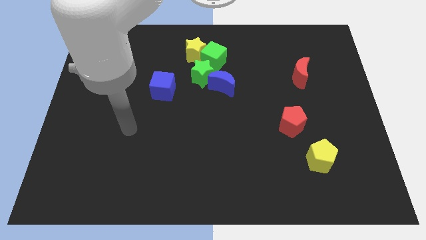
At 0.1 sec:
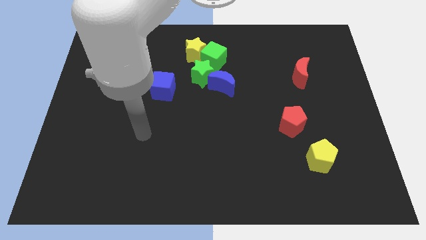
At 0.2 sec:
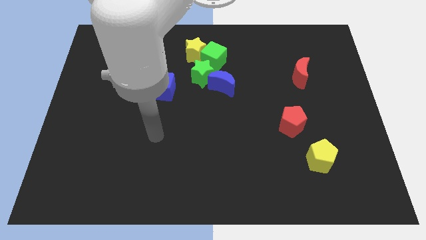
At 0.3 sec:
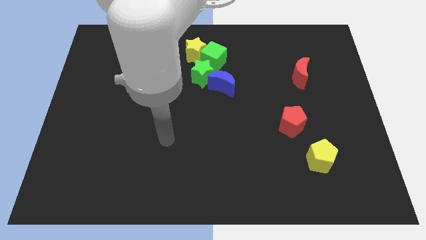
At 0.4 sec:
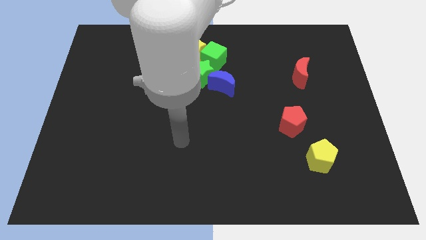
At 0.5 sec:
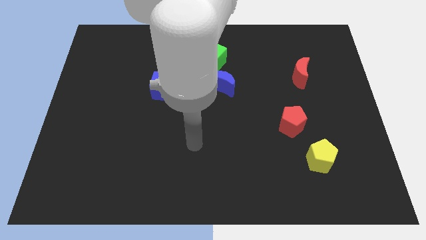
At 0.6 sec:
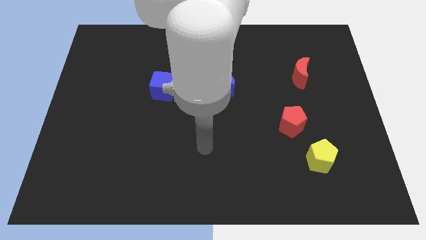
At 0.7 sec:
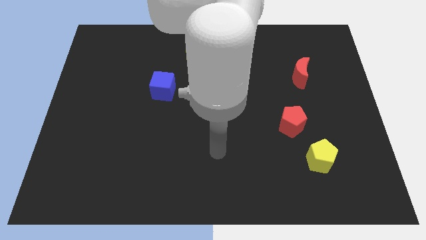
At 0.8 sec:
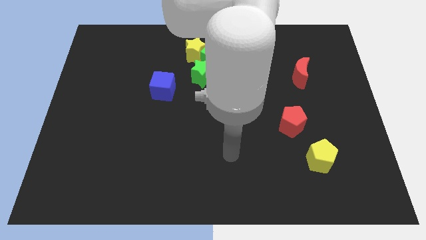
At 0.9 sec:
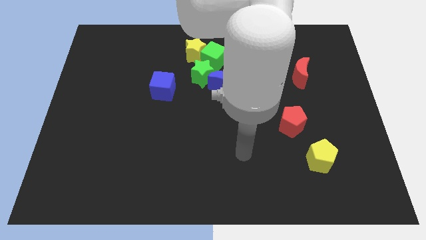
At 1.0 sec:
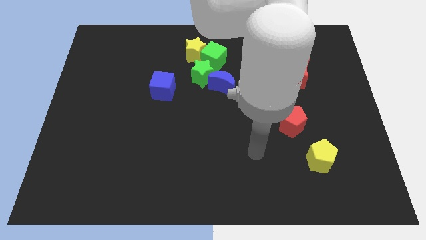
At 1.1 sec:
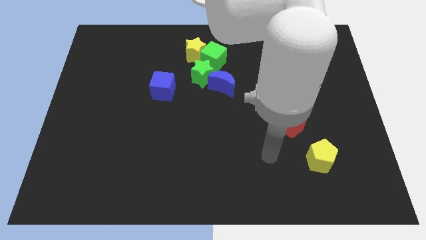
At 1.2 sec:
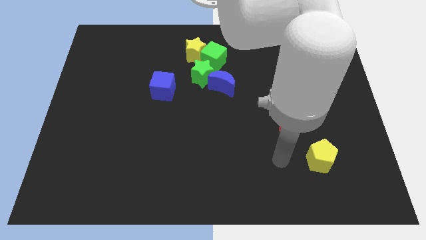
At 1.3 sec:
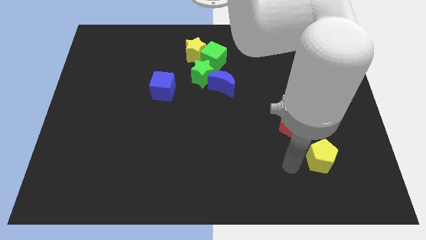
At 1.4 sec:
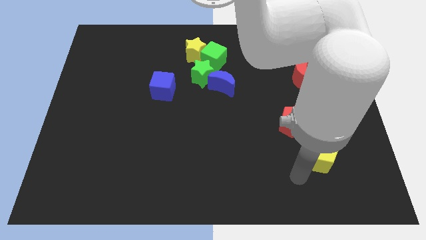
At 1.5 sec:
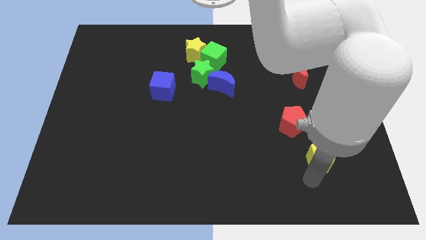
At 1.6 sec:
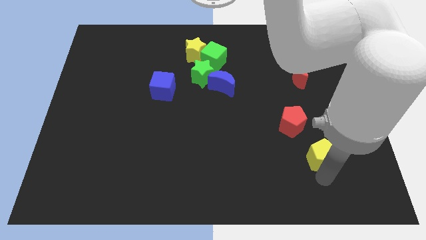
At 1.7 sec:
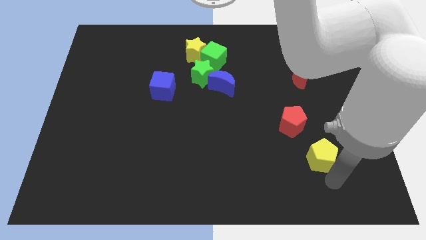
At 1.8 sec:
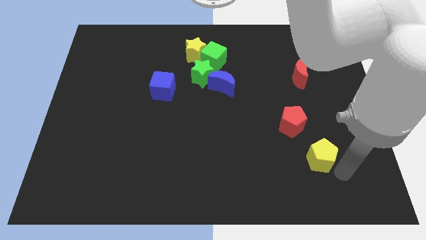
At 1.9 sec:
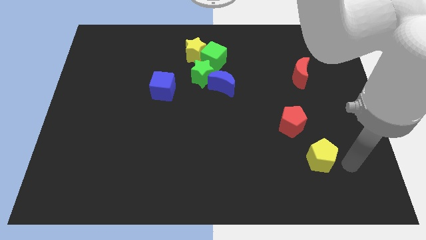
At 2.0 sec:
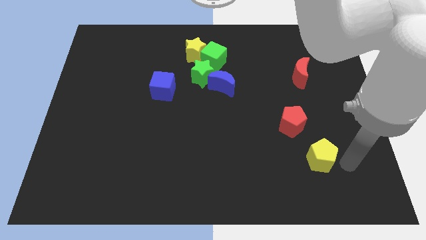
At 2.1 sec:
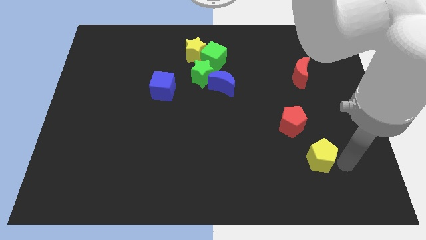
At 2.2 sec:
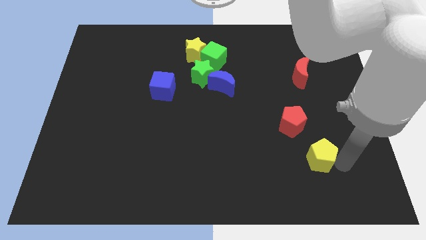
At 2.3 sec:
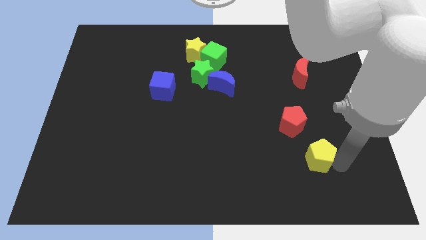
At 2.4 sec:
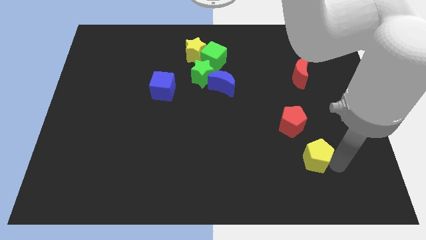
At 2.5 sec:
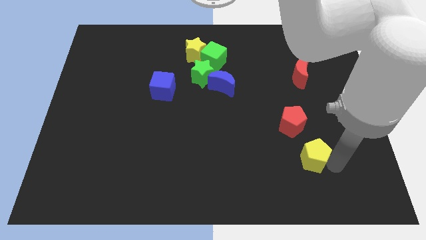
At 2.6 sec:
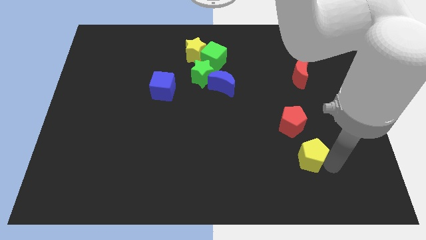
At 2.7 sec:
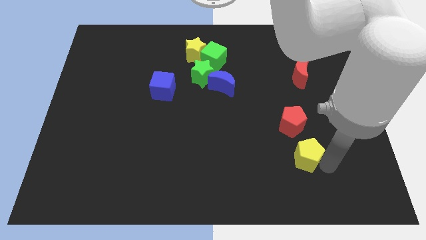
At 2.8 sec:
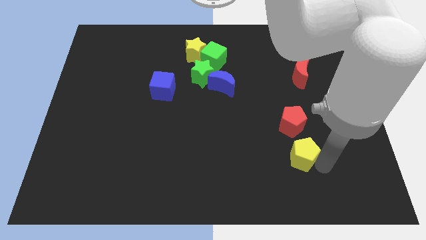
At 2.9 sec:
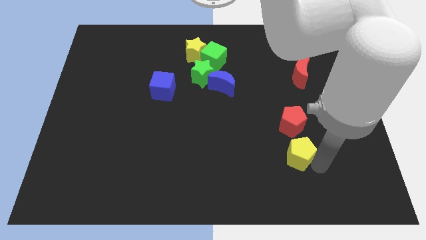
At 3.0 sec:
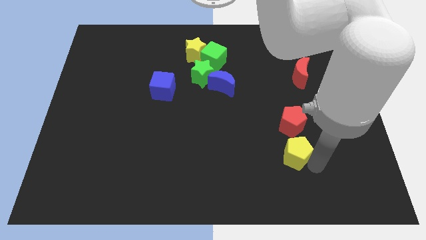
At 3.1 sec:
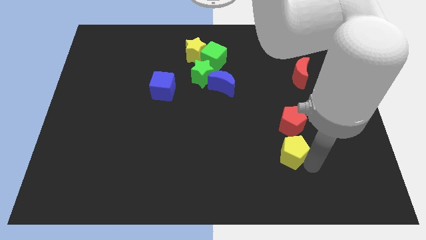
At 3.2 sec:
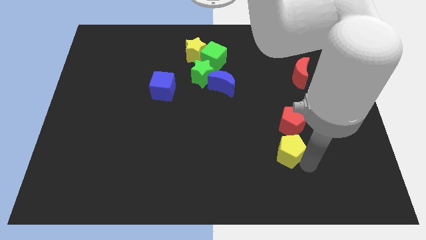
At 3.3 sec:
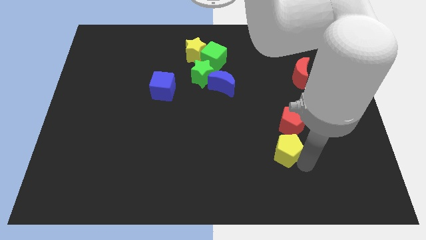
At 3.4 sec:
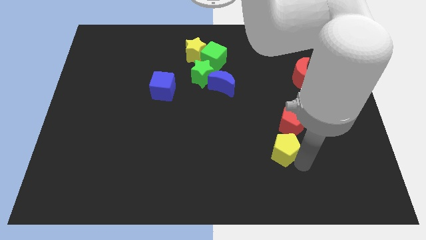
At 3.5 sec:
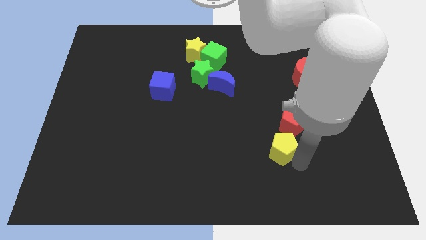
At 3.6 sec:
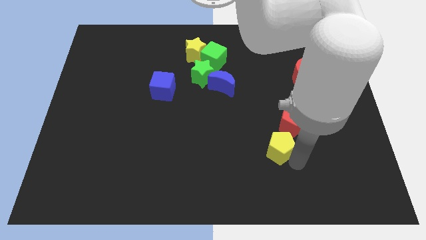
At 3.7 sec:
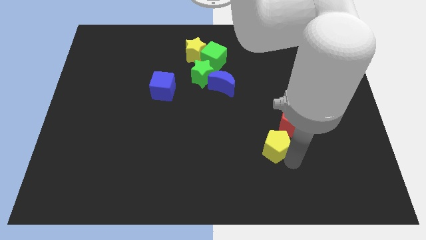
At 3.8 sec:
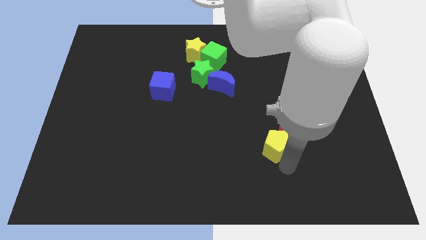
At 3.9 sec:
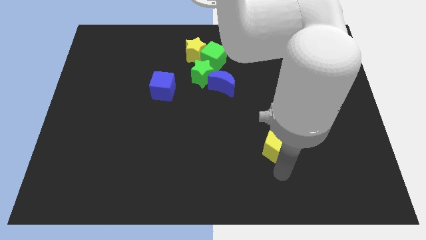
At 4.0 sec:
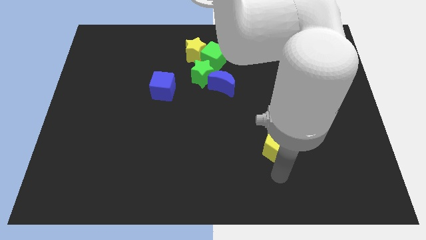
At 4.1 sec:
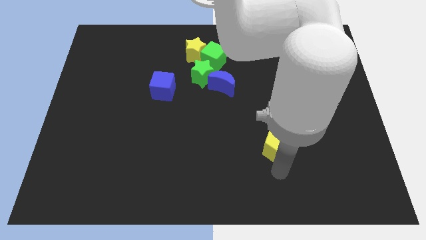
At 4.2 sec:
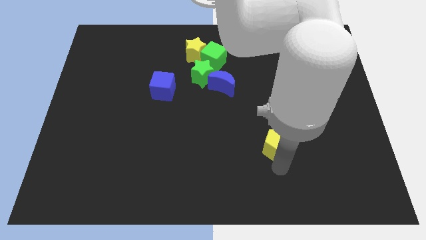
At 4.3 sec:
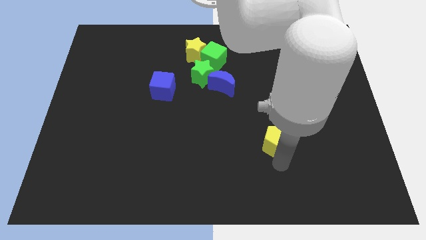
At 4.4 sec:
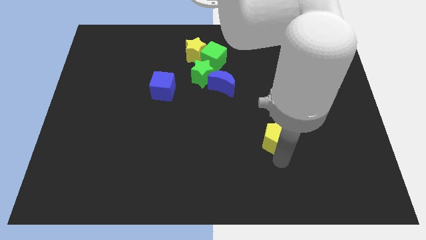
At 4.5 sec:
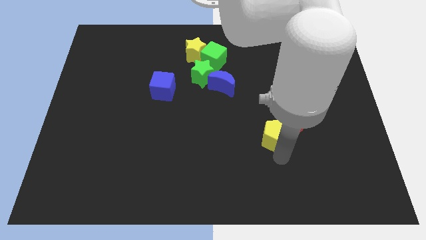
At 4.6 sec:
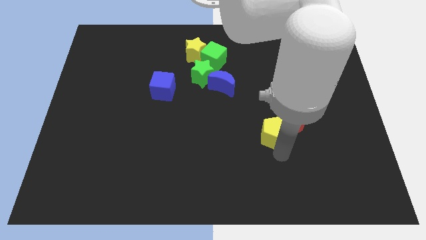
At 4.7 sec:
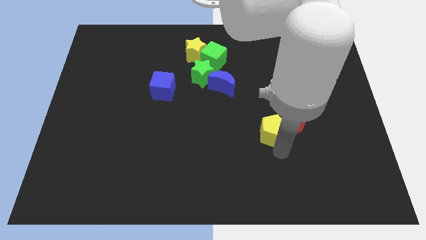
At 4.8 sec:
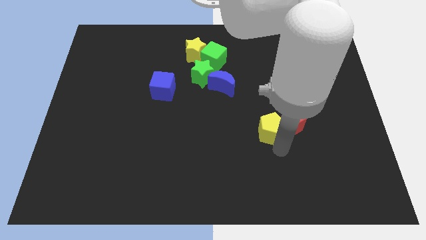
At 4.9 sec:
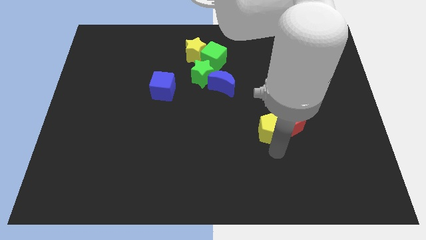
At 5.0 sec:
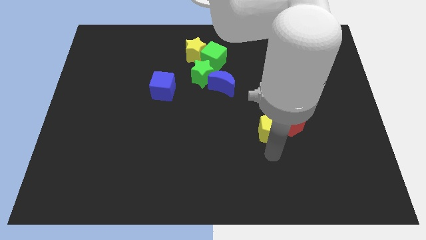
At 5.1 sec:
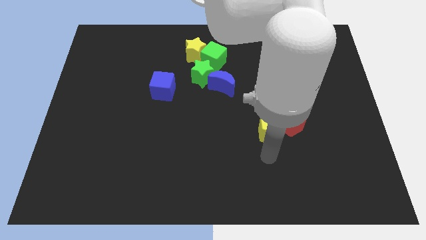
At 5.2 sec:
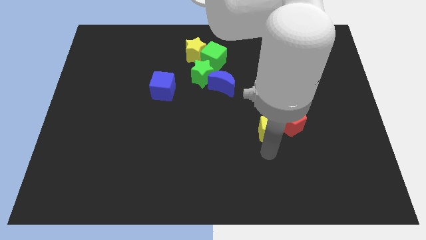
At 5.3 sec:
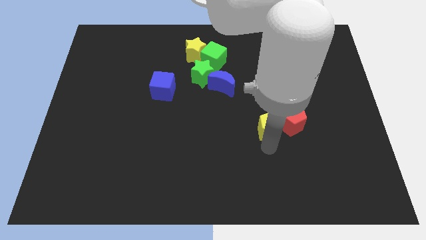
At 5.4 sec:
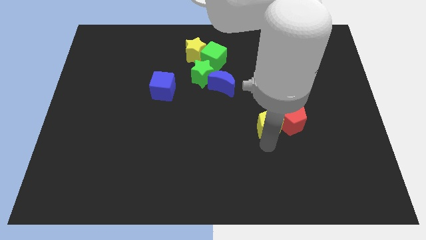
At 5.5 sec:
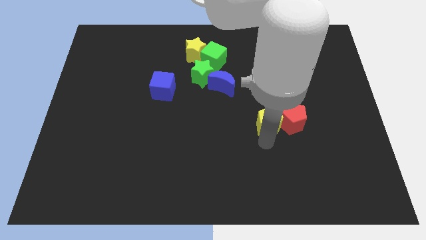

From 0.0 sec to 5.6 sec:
move the yellow pentagon to the top left side of the red pentagon

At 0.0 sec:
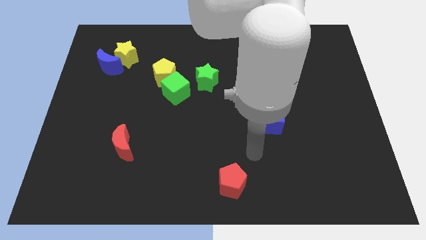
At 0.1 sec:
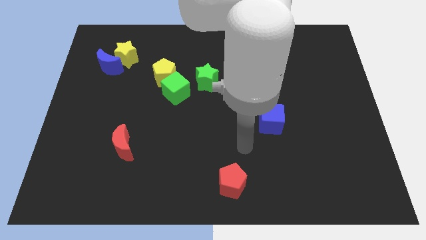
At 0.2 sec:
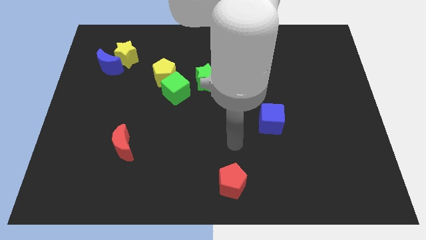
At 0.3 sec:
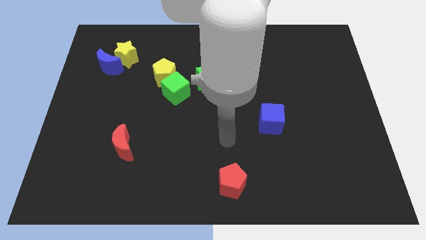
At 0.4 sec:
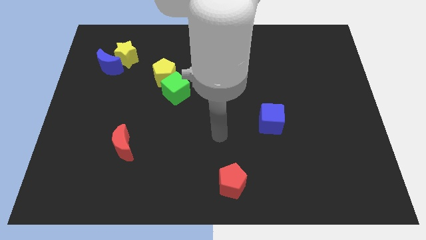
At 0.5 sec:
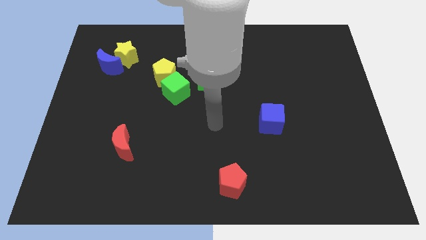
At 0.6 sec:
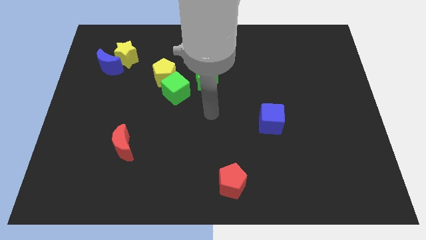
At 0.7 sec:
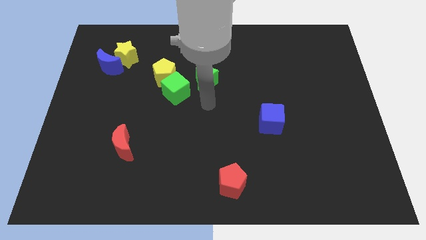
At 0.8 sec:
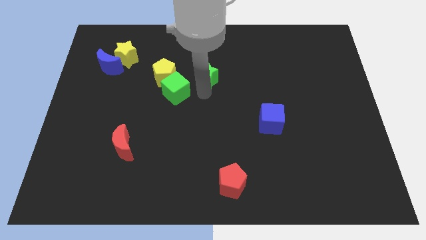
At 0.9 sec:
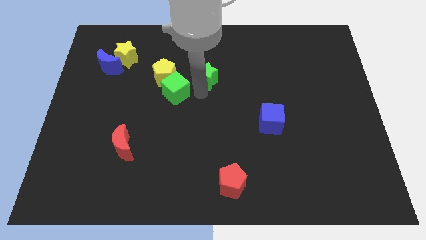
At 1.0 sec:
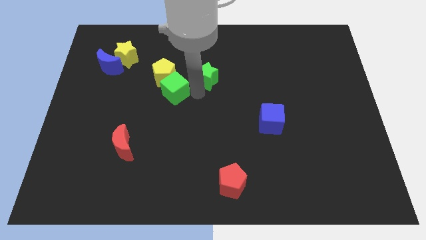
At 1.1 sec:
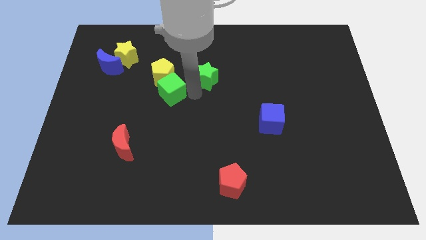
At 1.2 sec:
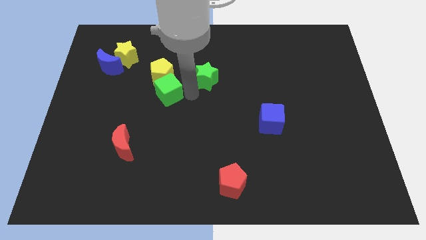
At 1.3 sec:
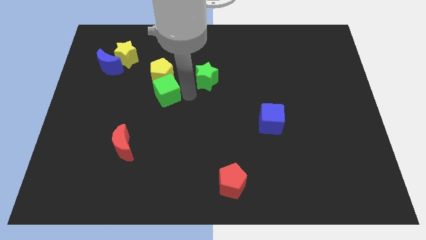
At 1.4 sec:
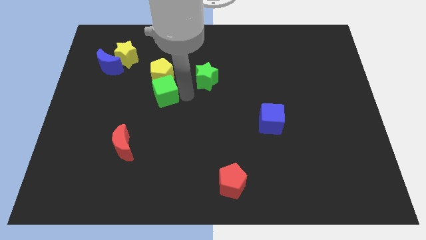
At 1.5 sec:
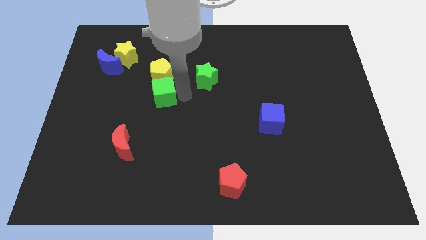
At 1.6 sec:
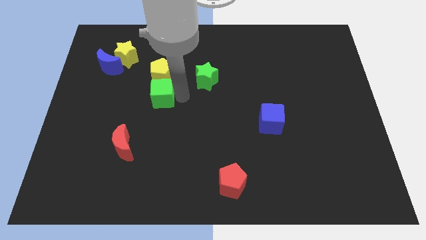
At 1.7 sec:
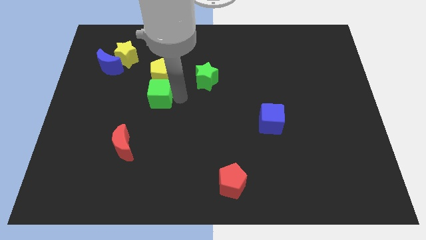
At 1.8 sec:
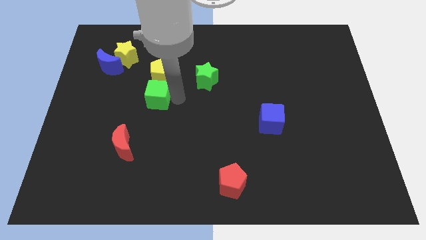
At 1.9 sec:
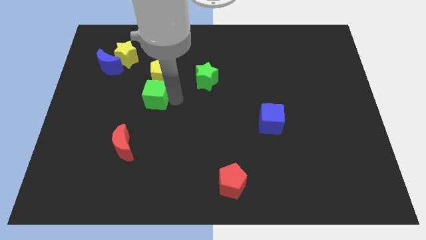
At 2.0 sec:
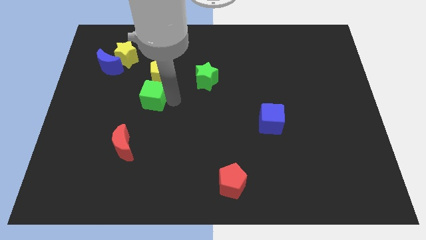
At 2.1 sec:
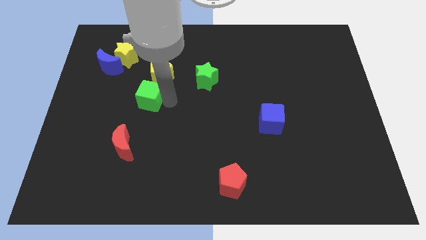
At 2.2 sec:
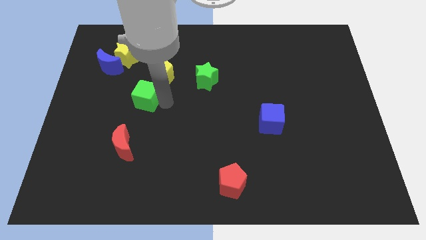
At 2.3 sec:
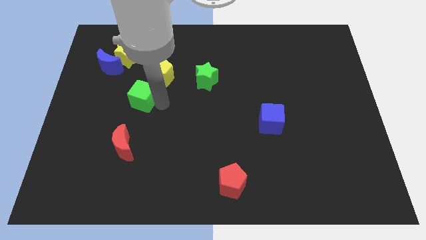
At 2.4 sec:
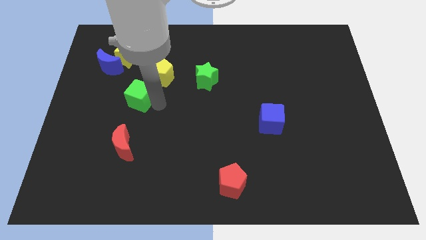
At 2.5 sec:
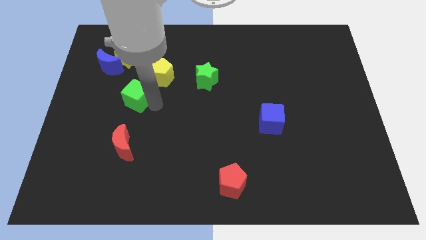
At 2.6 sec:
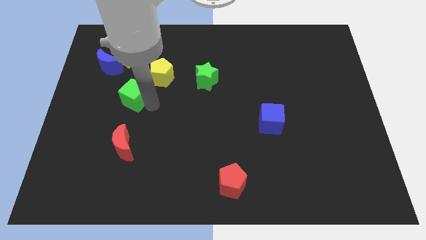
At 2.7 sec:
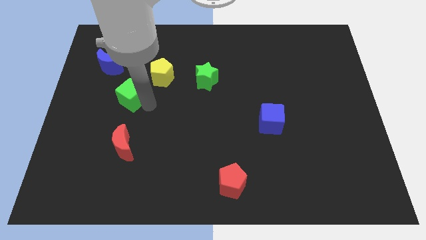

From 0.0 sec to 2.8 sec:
slide the green cube to the bottom right of the blue moon
